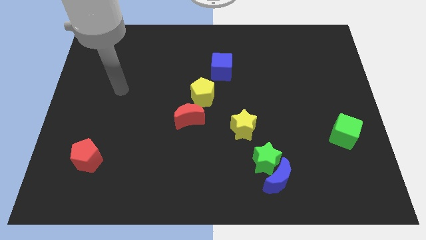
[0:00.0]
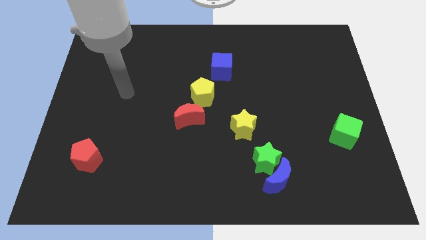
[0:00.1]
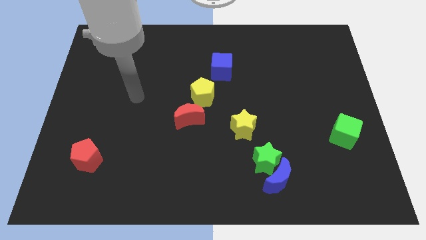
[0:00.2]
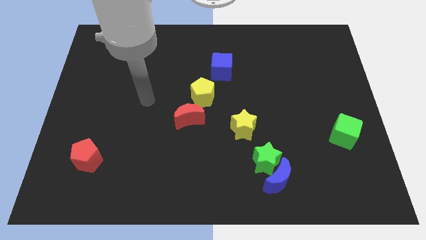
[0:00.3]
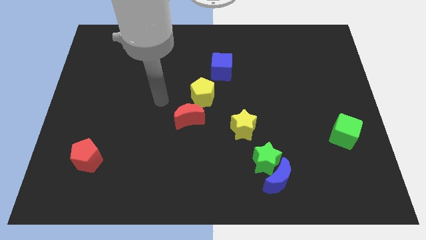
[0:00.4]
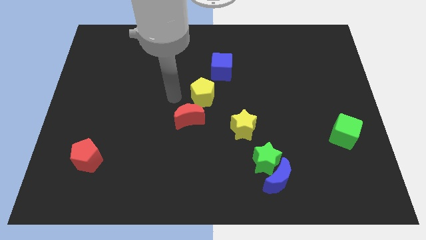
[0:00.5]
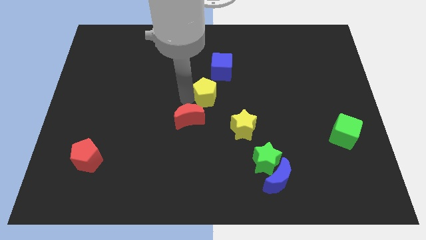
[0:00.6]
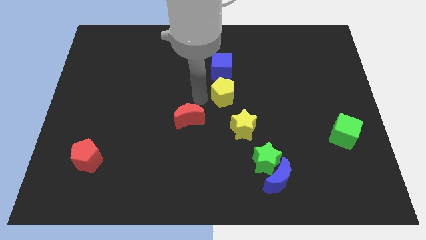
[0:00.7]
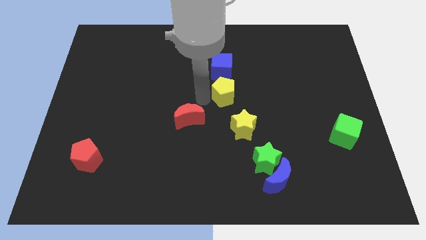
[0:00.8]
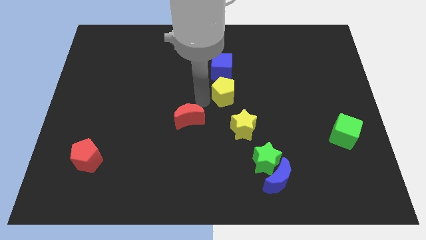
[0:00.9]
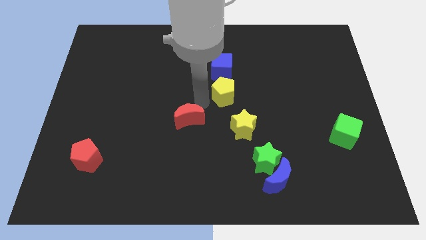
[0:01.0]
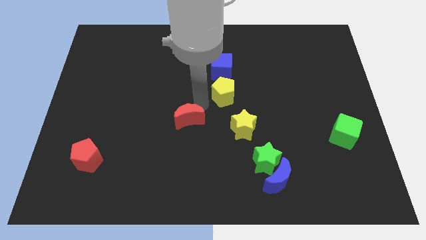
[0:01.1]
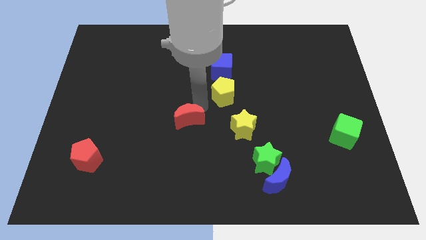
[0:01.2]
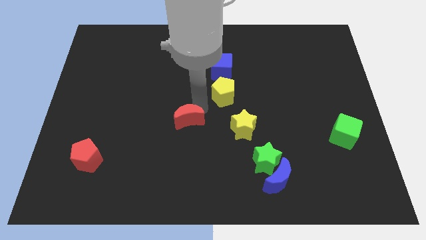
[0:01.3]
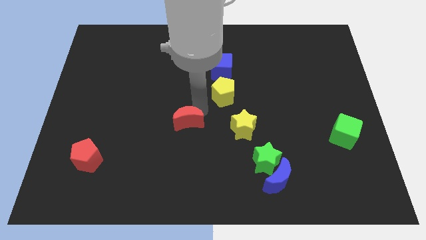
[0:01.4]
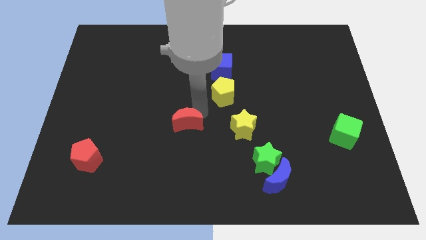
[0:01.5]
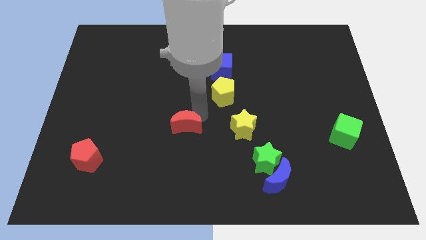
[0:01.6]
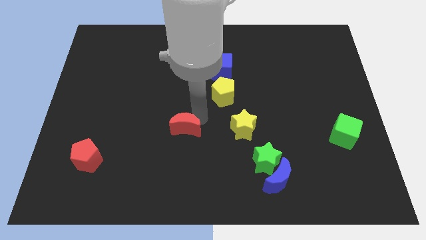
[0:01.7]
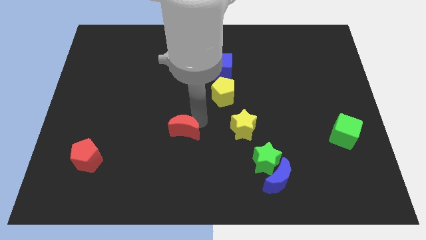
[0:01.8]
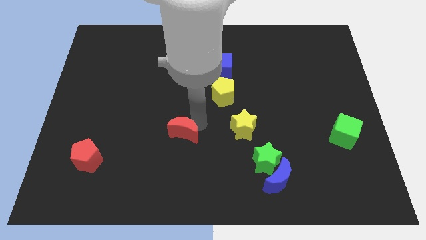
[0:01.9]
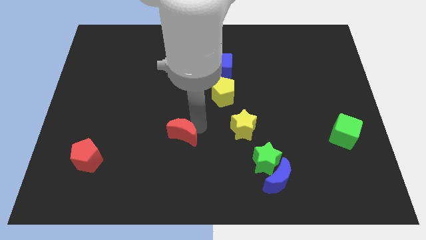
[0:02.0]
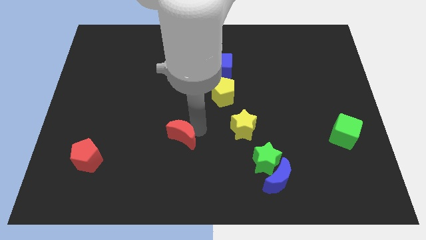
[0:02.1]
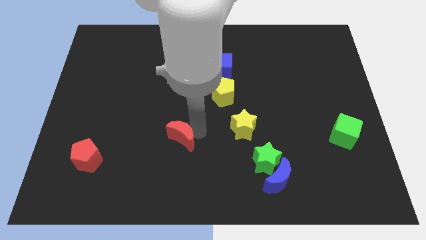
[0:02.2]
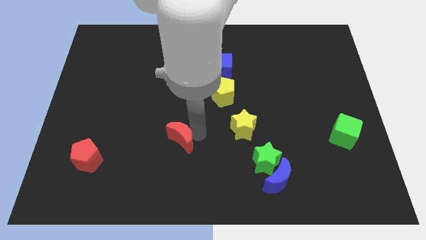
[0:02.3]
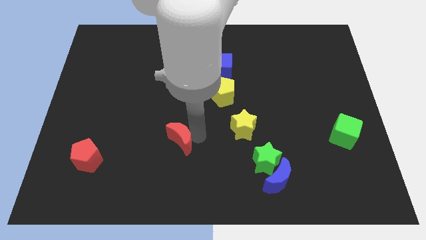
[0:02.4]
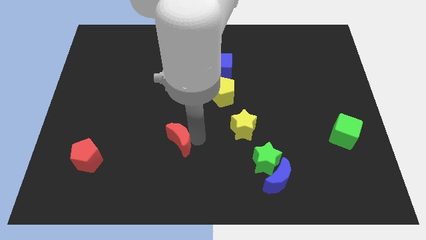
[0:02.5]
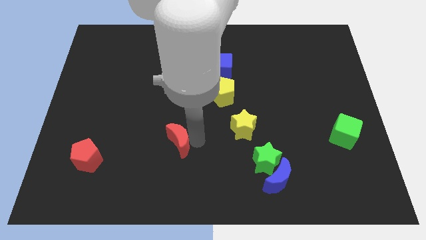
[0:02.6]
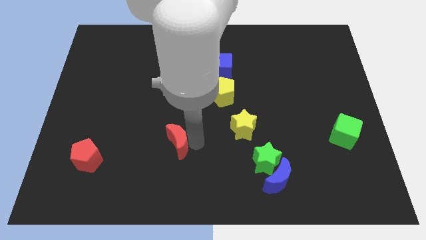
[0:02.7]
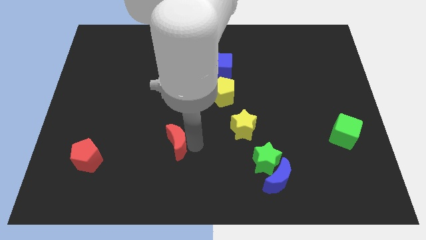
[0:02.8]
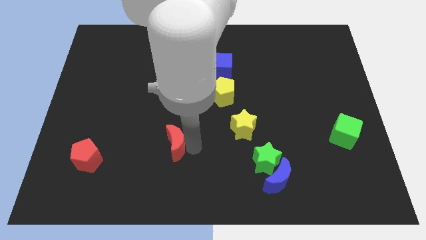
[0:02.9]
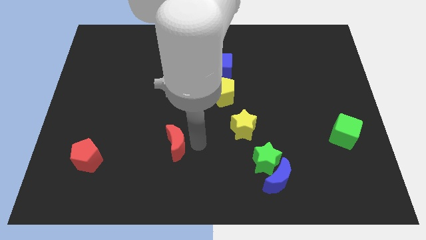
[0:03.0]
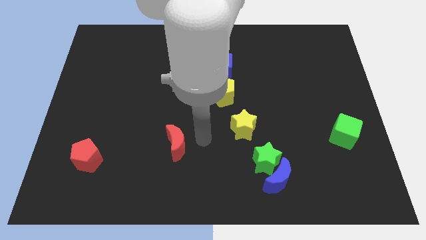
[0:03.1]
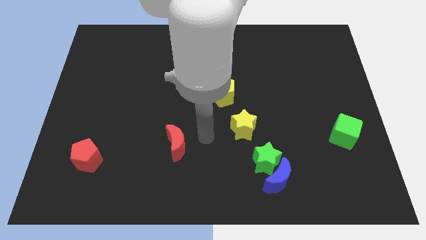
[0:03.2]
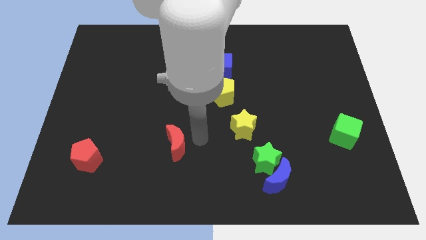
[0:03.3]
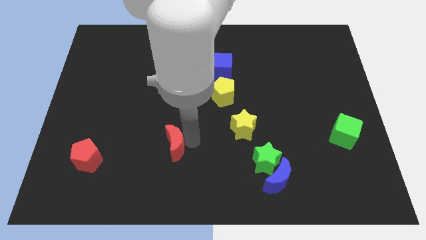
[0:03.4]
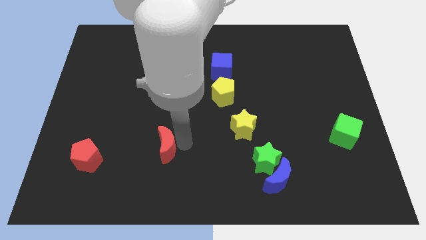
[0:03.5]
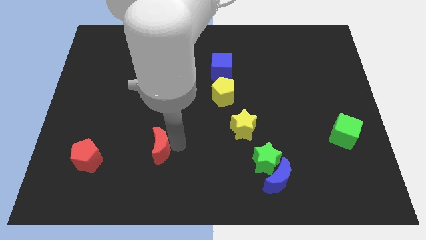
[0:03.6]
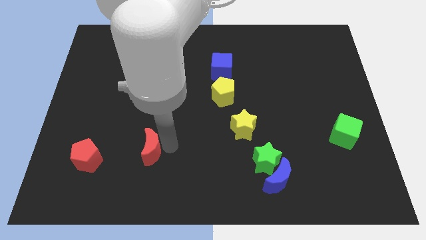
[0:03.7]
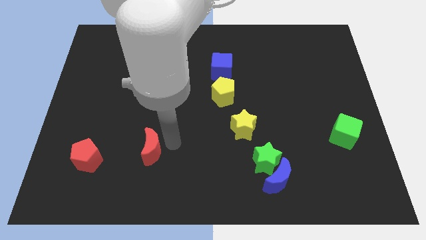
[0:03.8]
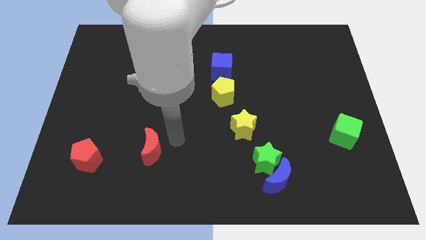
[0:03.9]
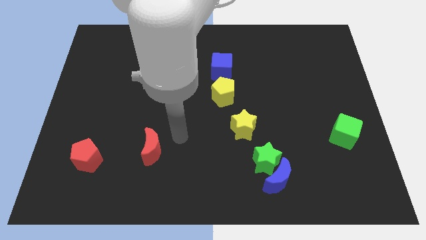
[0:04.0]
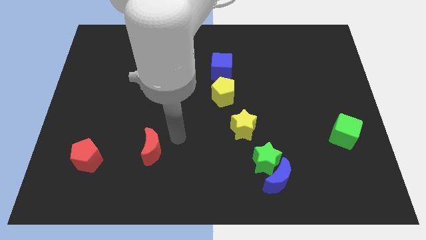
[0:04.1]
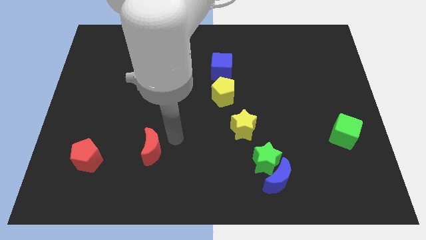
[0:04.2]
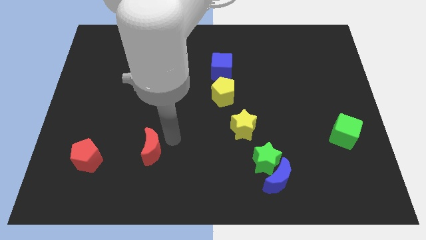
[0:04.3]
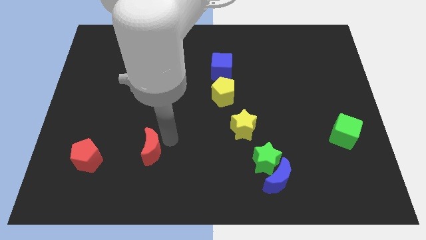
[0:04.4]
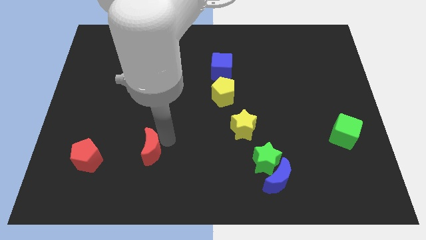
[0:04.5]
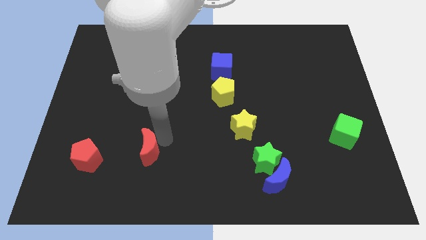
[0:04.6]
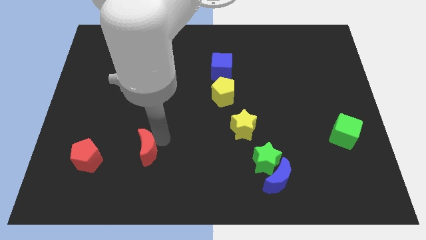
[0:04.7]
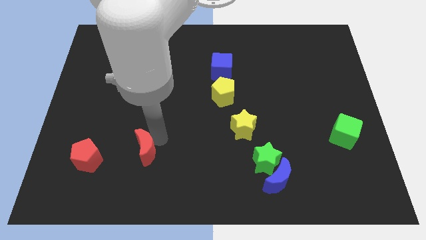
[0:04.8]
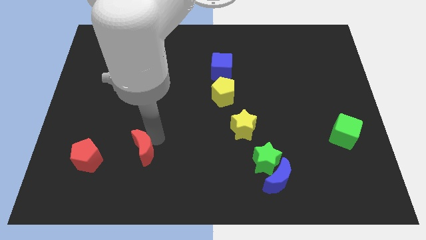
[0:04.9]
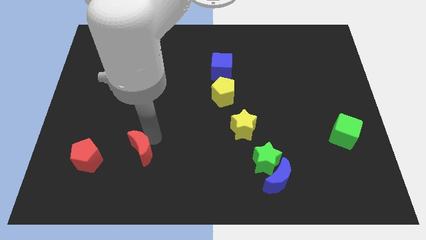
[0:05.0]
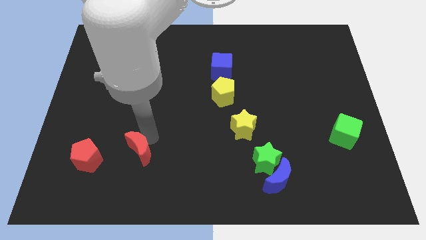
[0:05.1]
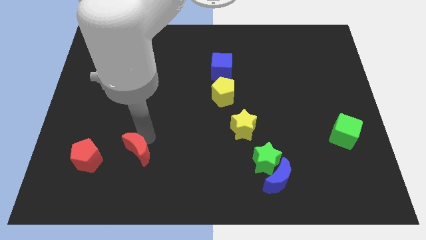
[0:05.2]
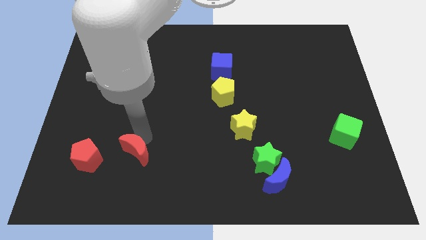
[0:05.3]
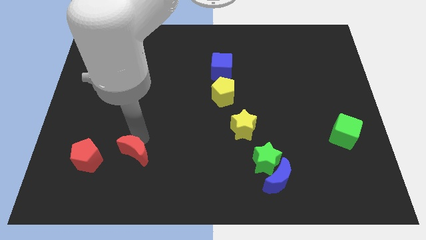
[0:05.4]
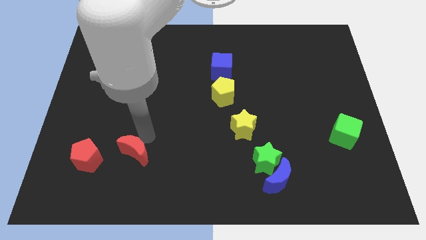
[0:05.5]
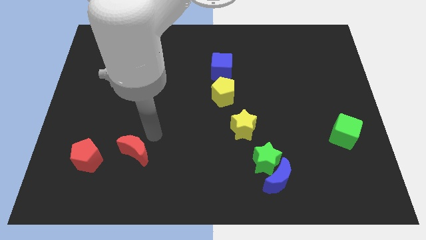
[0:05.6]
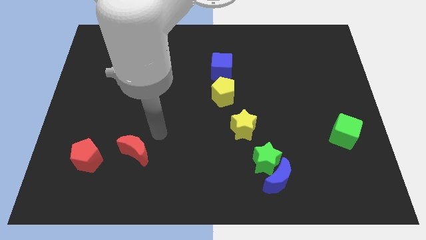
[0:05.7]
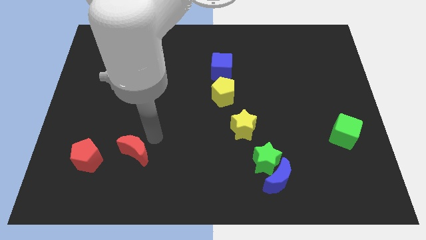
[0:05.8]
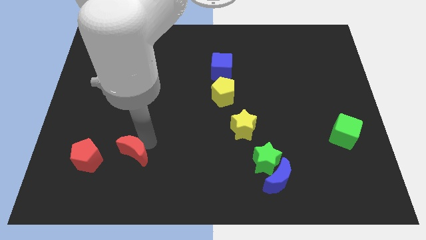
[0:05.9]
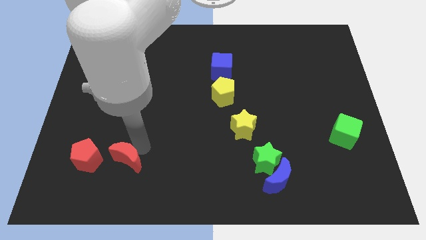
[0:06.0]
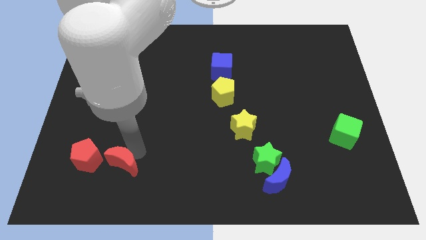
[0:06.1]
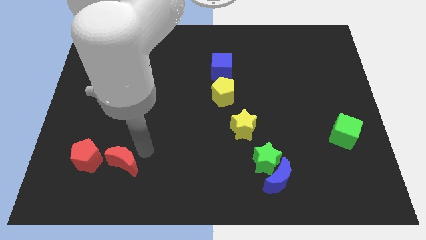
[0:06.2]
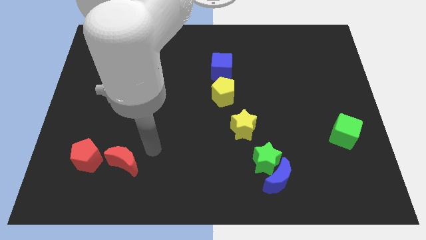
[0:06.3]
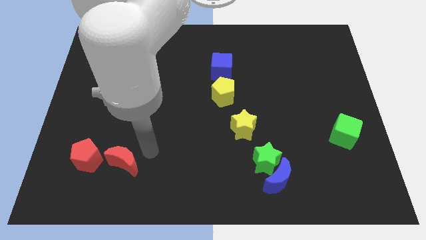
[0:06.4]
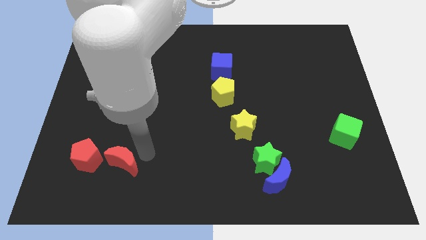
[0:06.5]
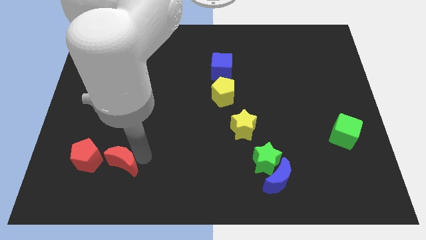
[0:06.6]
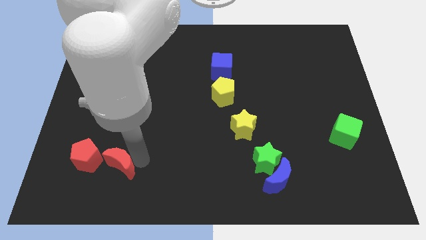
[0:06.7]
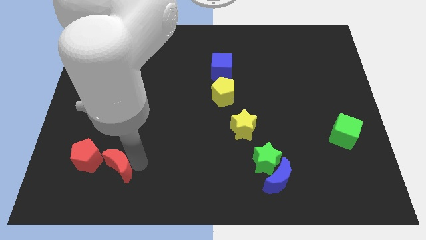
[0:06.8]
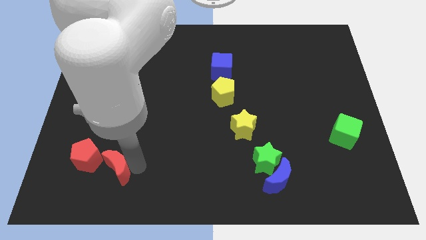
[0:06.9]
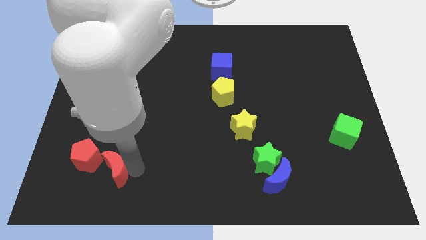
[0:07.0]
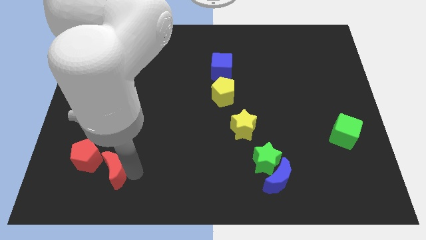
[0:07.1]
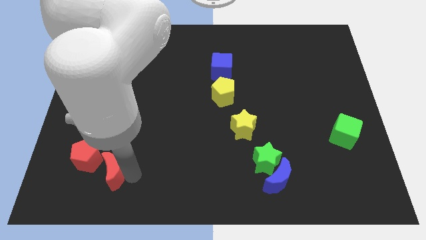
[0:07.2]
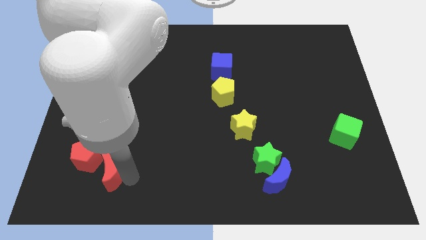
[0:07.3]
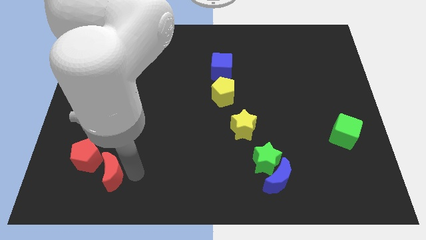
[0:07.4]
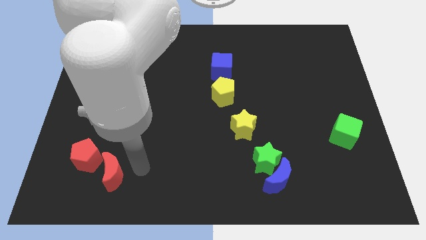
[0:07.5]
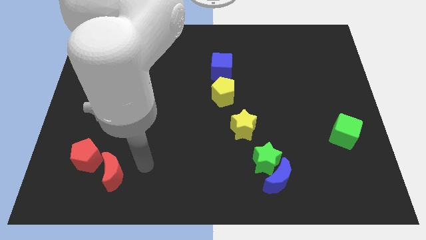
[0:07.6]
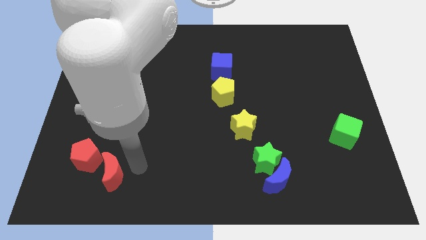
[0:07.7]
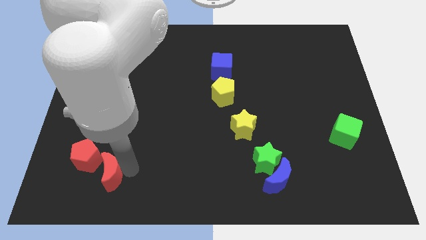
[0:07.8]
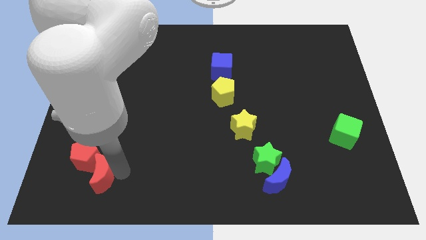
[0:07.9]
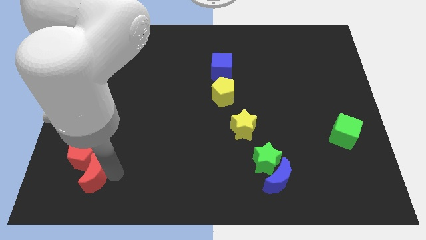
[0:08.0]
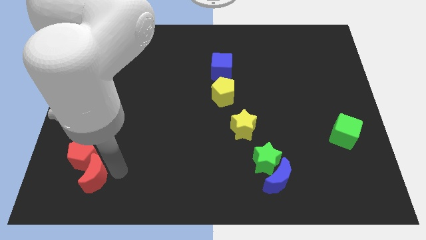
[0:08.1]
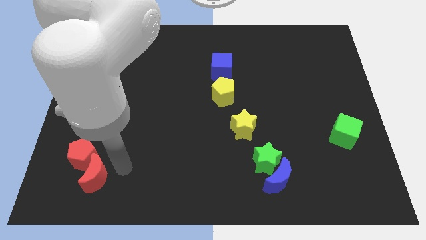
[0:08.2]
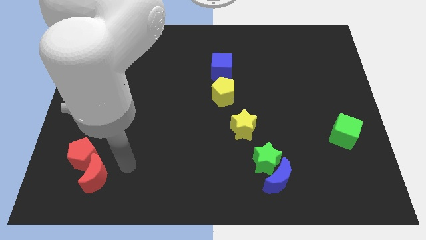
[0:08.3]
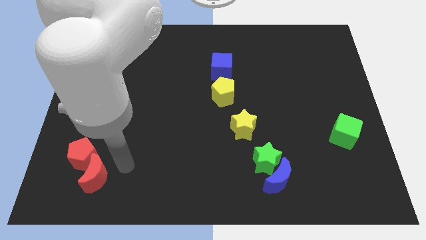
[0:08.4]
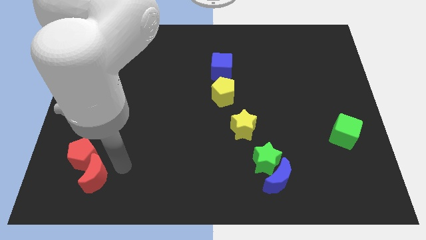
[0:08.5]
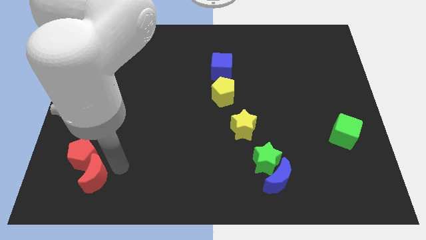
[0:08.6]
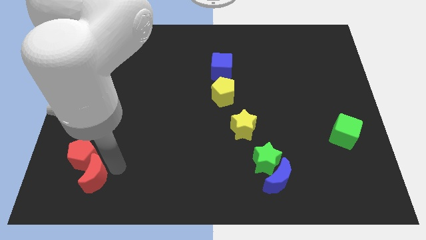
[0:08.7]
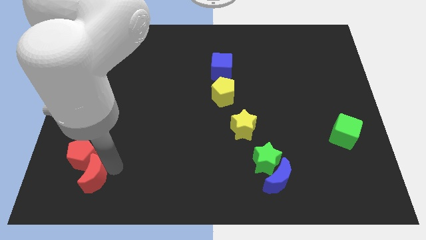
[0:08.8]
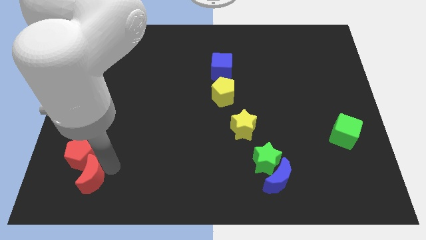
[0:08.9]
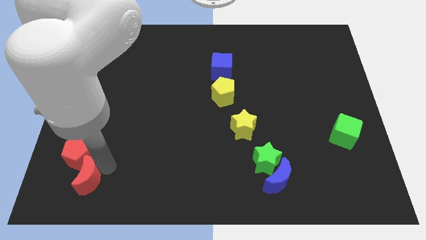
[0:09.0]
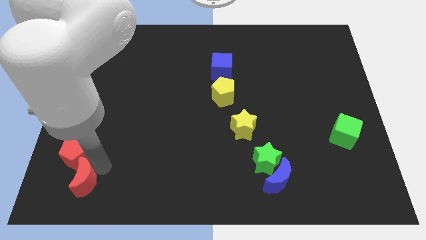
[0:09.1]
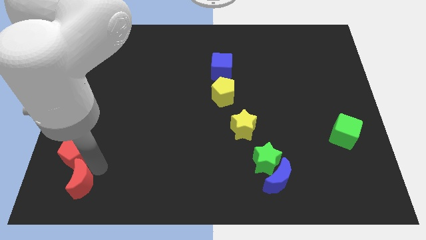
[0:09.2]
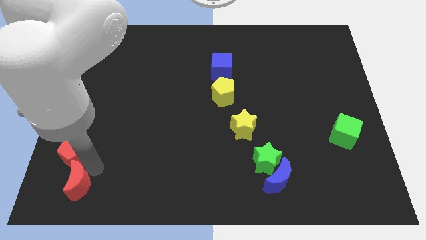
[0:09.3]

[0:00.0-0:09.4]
push the red moon to the bottom left corner
